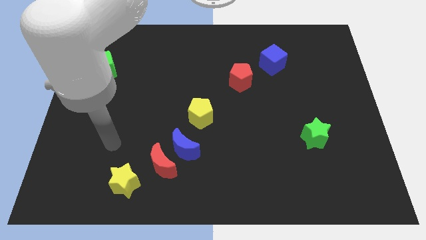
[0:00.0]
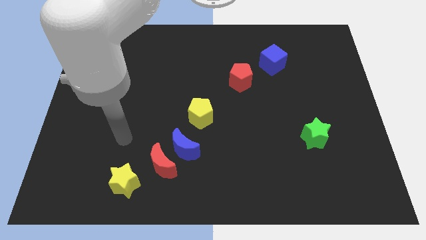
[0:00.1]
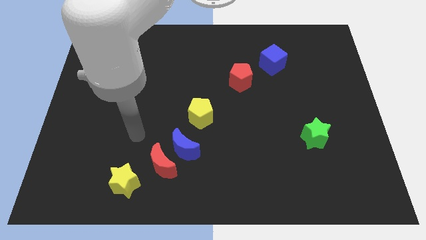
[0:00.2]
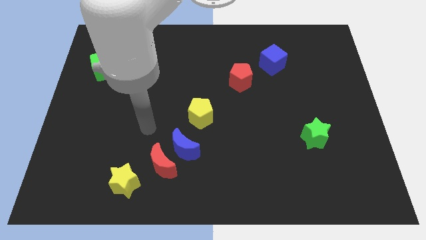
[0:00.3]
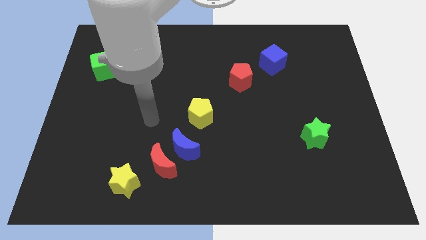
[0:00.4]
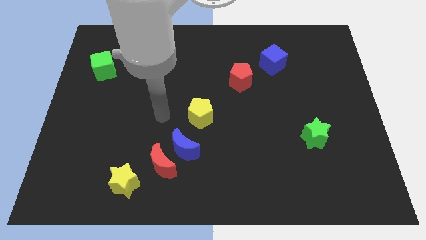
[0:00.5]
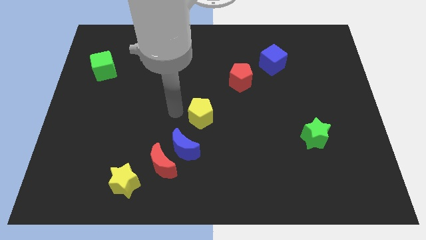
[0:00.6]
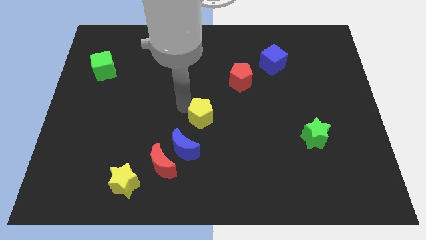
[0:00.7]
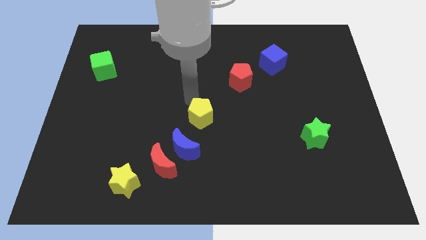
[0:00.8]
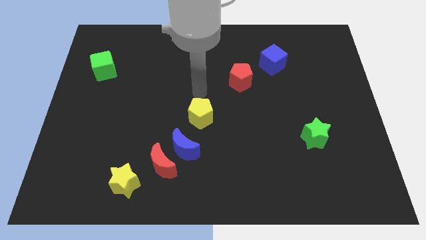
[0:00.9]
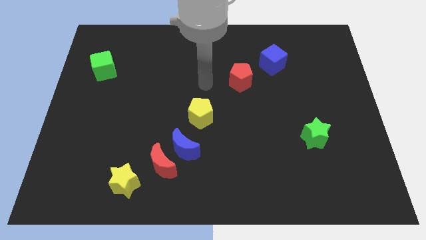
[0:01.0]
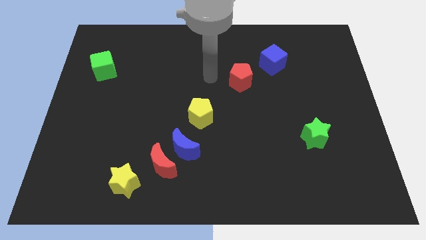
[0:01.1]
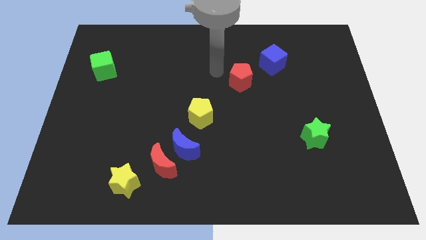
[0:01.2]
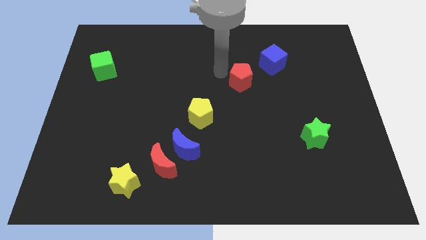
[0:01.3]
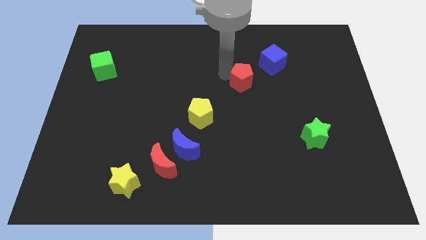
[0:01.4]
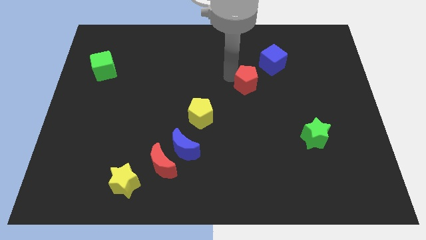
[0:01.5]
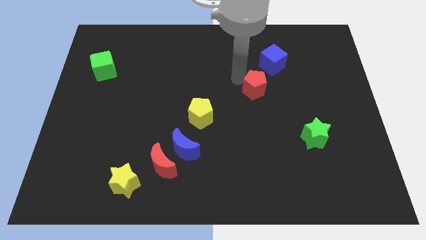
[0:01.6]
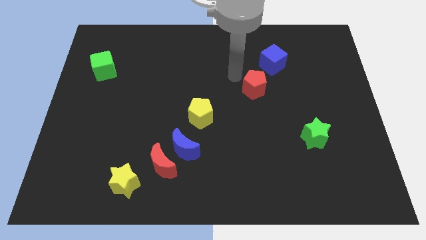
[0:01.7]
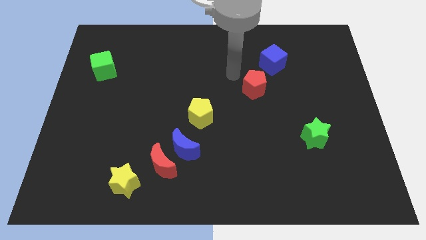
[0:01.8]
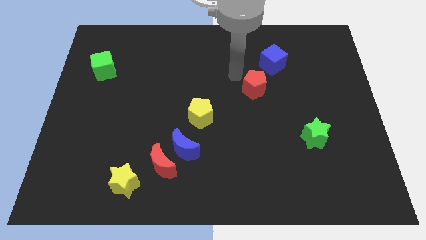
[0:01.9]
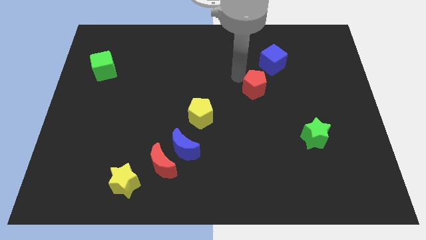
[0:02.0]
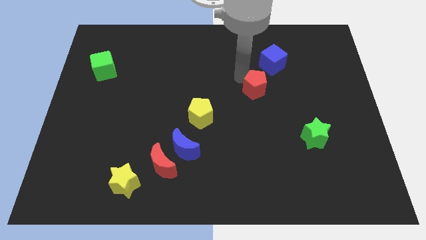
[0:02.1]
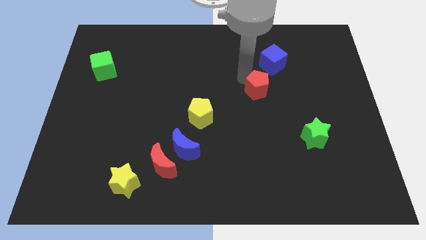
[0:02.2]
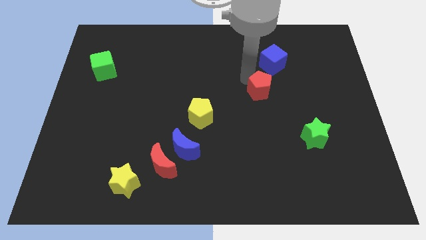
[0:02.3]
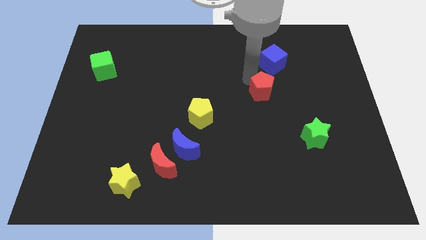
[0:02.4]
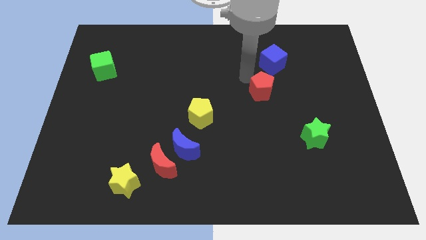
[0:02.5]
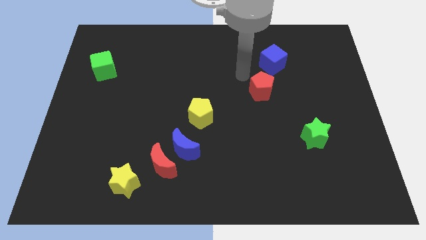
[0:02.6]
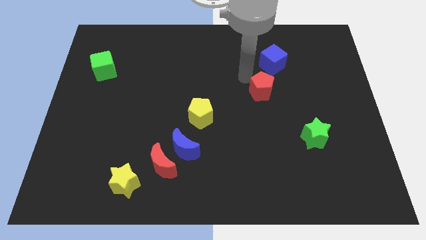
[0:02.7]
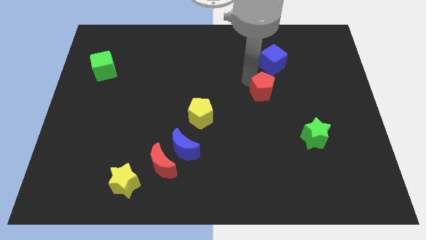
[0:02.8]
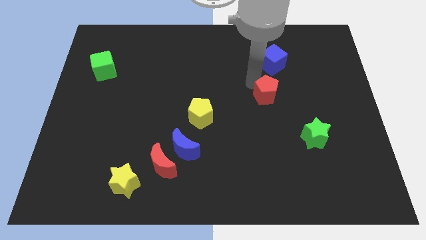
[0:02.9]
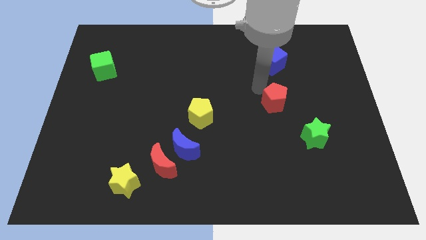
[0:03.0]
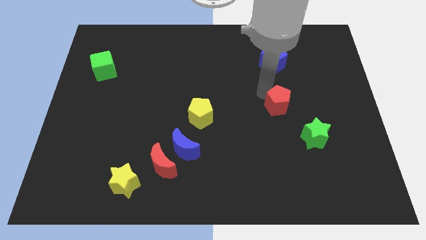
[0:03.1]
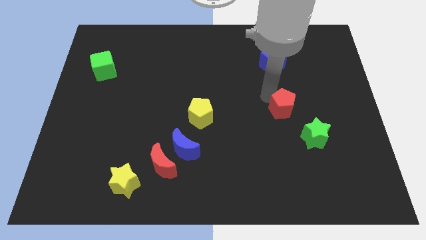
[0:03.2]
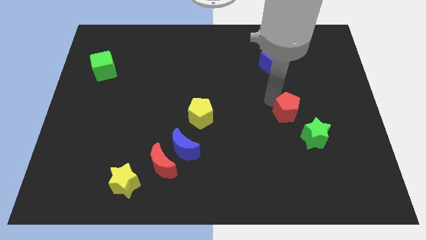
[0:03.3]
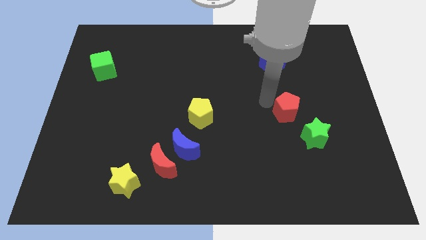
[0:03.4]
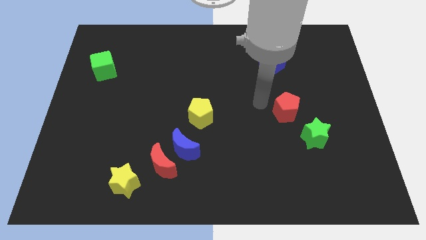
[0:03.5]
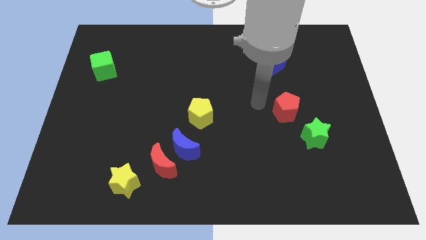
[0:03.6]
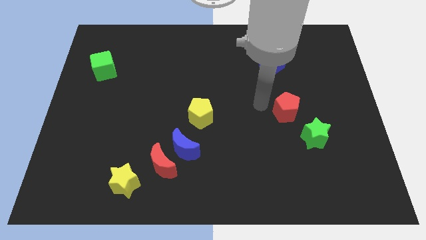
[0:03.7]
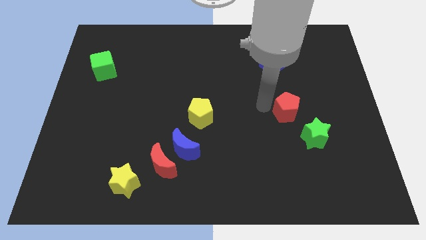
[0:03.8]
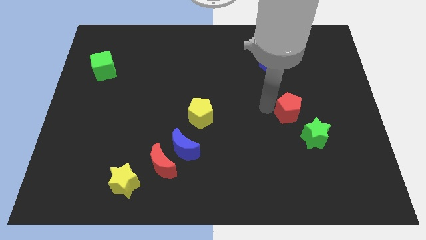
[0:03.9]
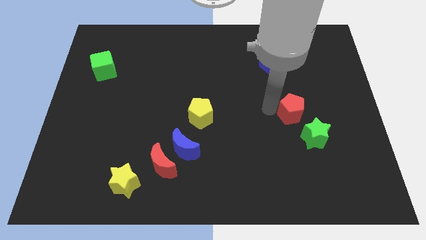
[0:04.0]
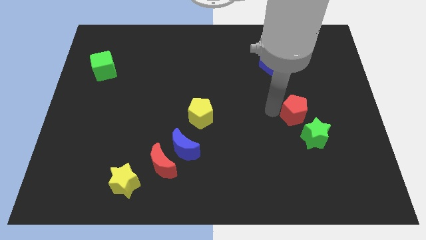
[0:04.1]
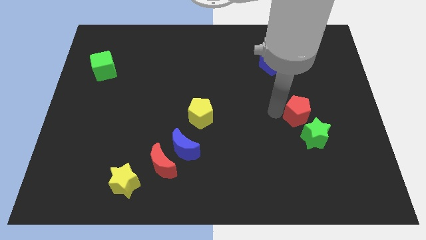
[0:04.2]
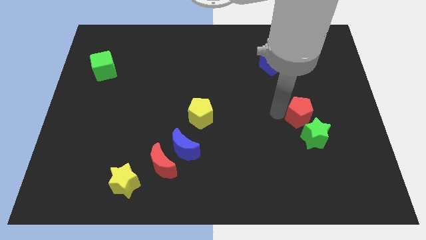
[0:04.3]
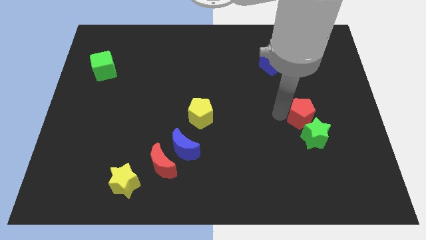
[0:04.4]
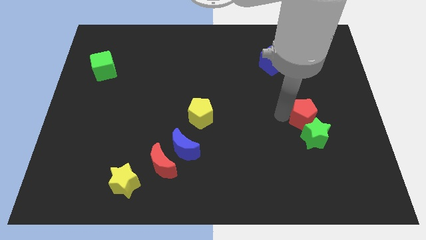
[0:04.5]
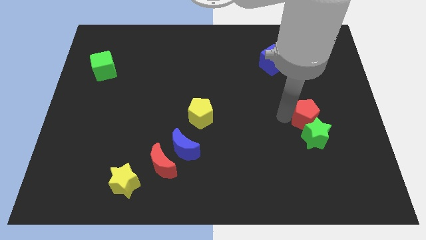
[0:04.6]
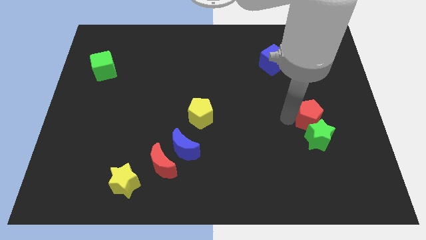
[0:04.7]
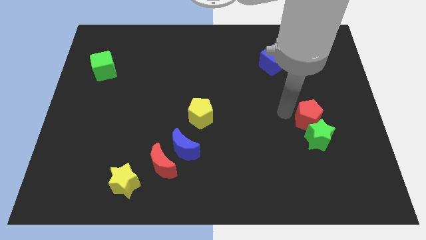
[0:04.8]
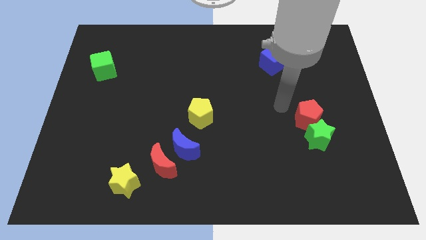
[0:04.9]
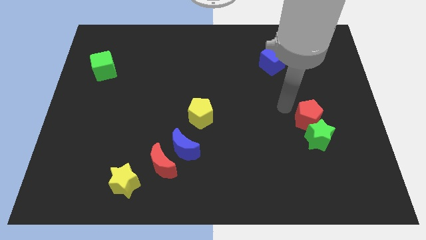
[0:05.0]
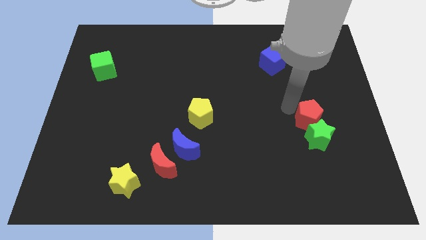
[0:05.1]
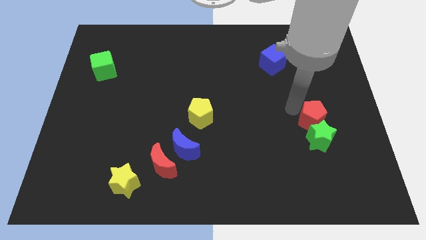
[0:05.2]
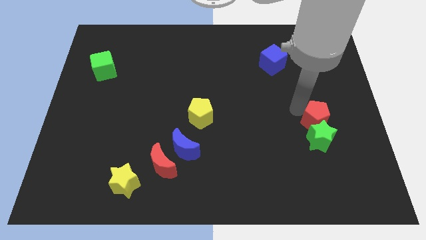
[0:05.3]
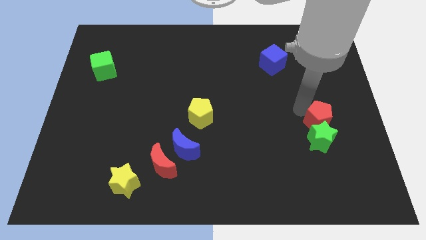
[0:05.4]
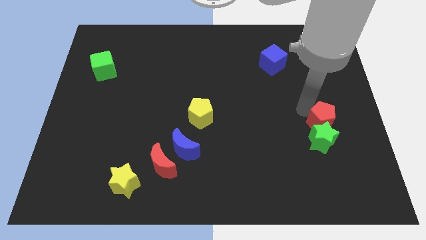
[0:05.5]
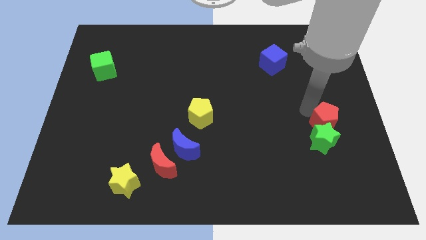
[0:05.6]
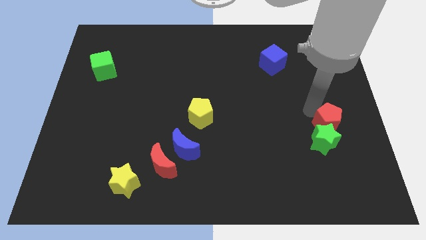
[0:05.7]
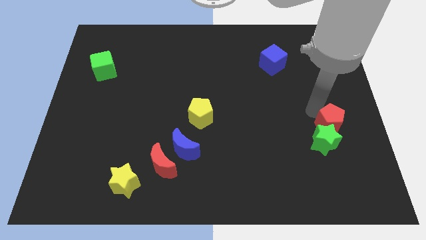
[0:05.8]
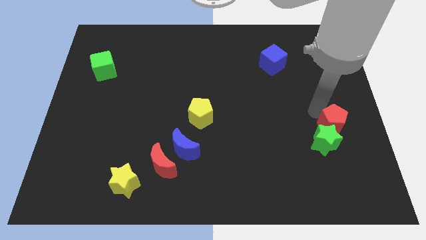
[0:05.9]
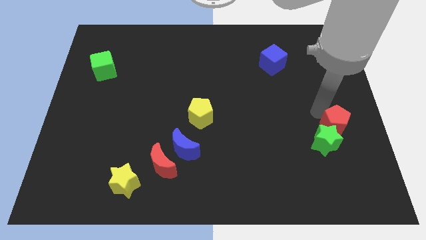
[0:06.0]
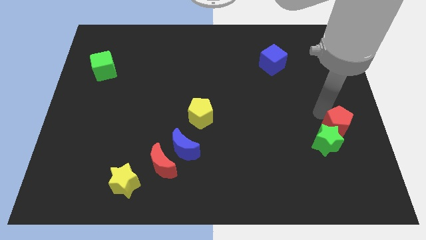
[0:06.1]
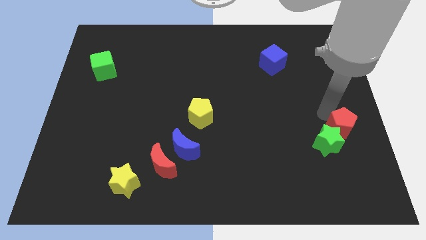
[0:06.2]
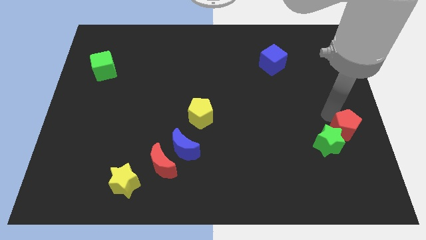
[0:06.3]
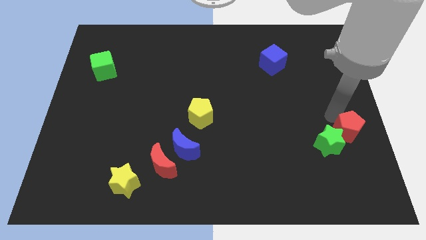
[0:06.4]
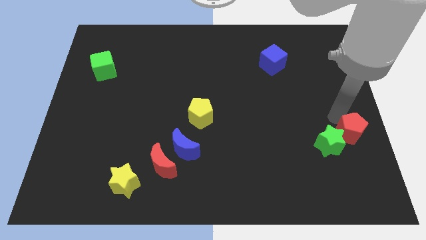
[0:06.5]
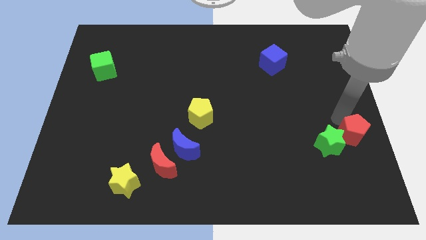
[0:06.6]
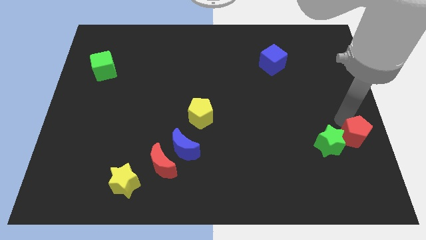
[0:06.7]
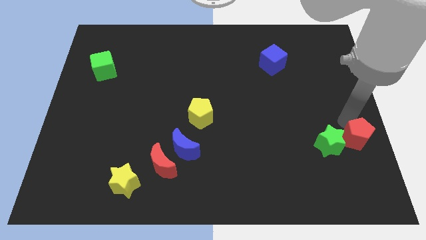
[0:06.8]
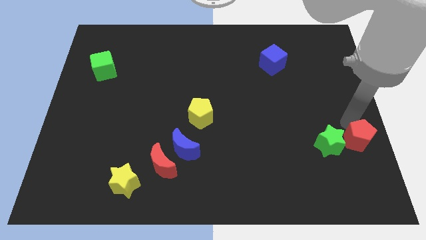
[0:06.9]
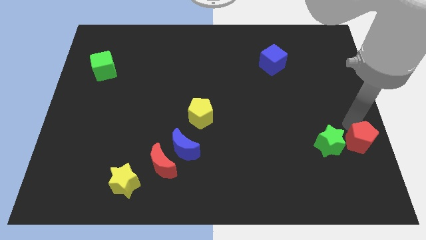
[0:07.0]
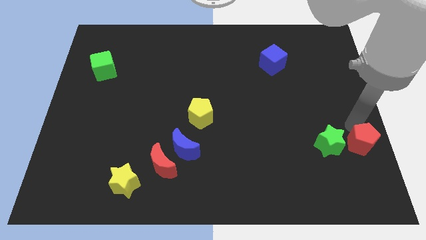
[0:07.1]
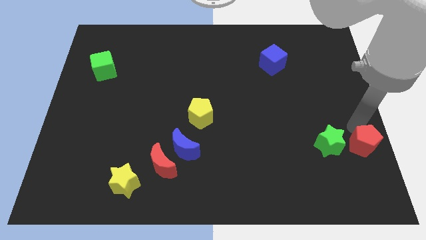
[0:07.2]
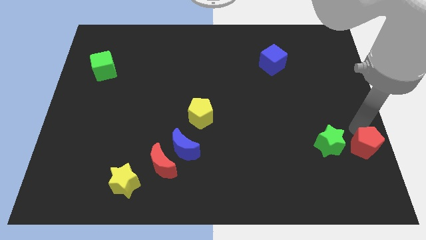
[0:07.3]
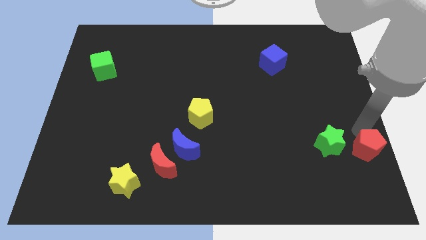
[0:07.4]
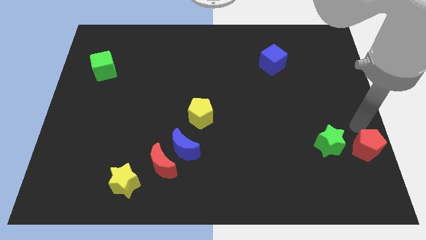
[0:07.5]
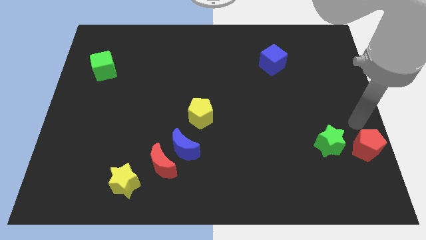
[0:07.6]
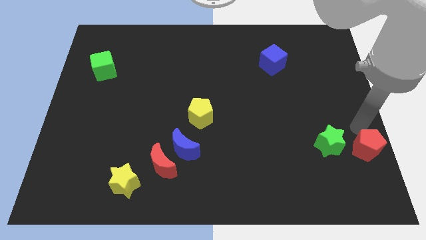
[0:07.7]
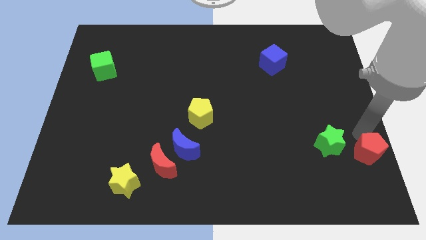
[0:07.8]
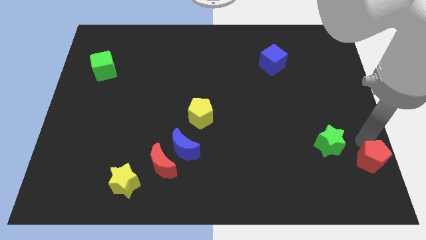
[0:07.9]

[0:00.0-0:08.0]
push the red pentagon to the bottom right of the board

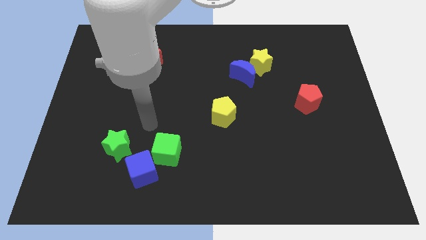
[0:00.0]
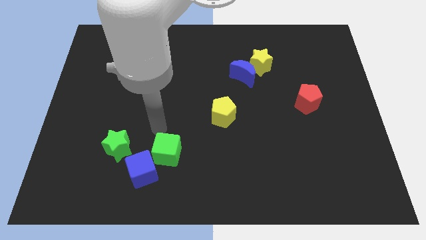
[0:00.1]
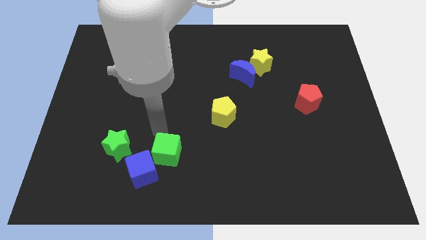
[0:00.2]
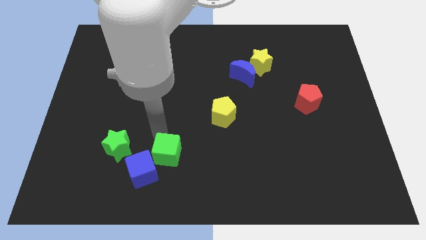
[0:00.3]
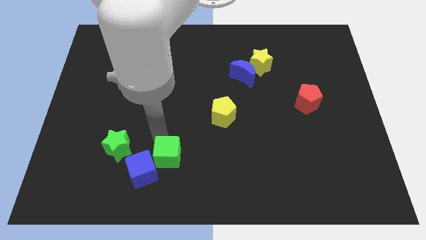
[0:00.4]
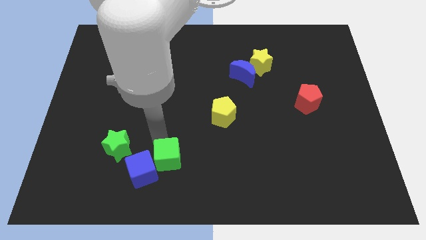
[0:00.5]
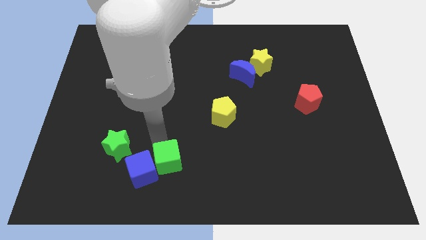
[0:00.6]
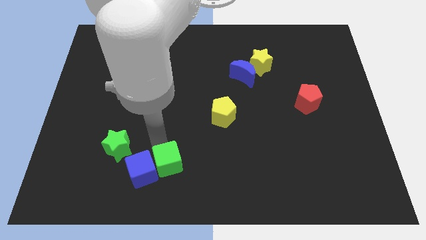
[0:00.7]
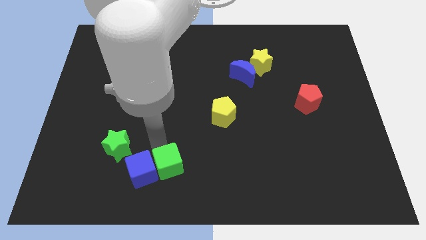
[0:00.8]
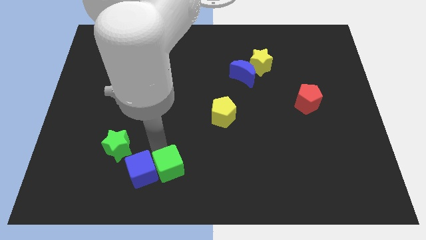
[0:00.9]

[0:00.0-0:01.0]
move the green cube to the bottom side
